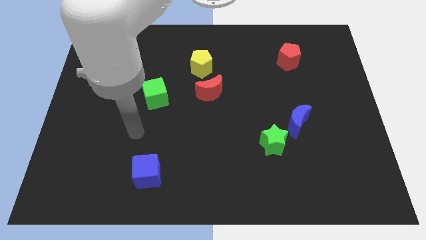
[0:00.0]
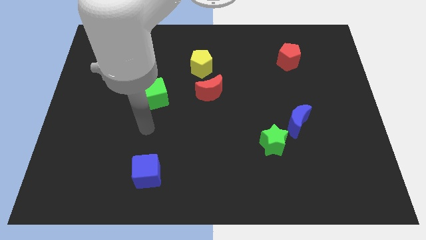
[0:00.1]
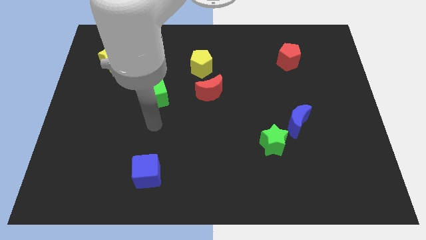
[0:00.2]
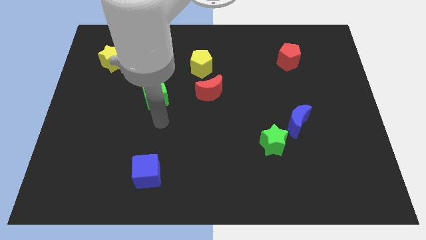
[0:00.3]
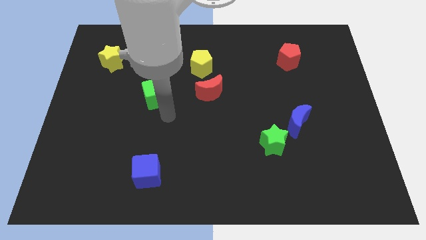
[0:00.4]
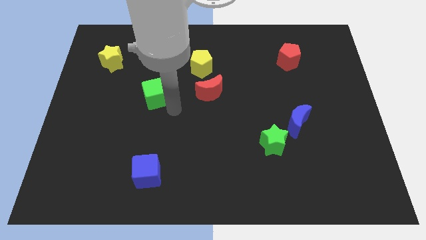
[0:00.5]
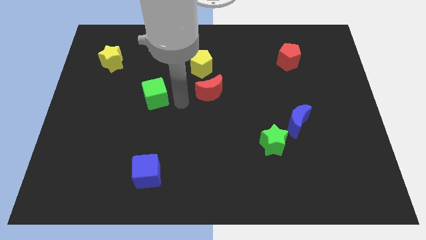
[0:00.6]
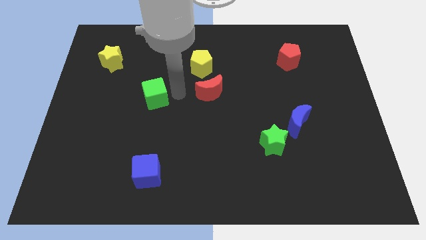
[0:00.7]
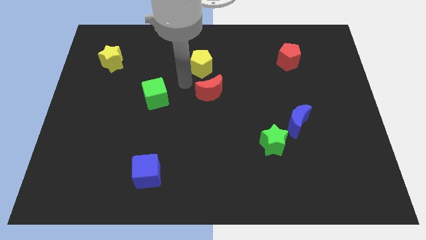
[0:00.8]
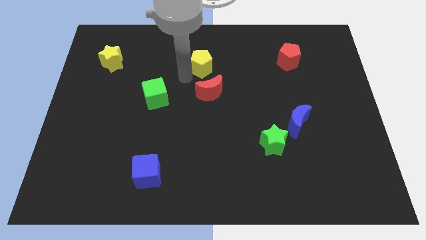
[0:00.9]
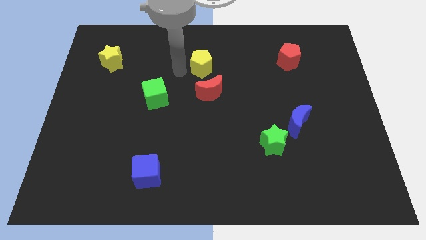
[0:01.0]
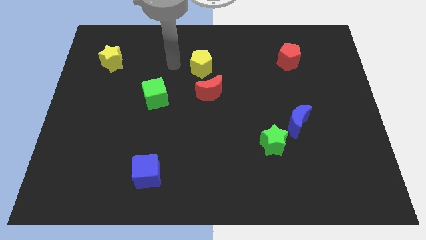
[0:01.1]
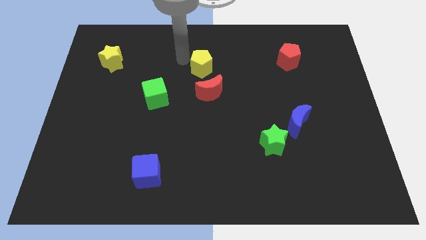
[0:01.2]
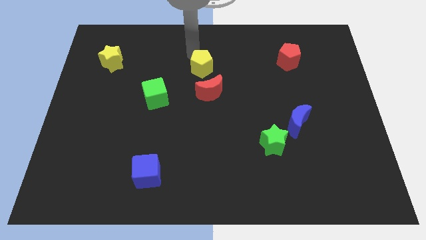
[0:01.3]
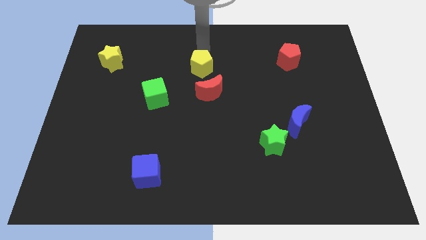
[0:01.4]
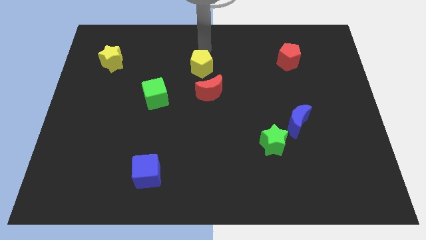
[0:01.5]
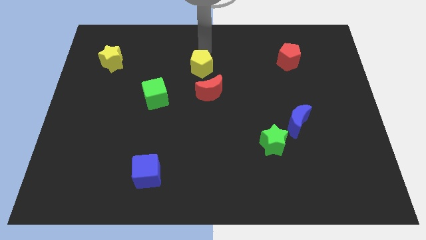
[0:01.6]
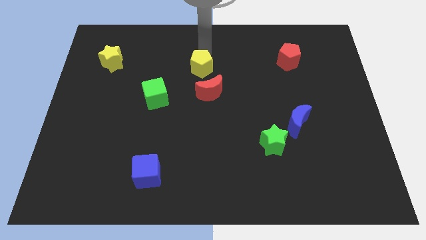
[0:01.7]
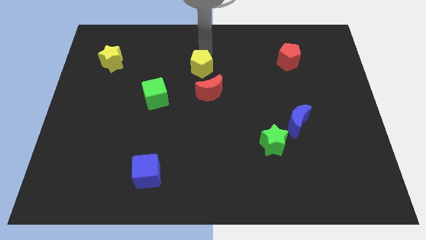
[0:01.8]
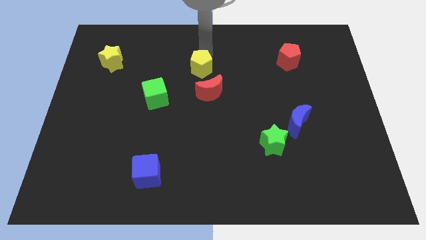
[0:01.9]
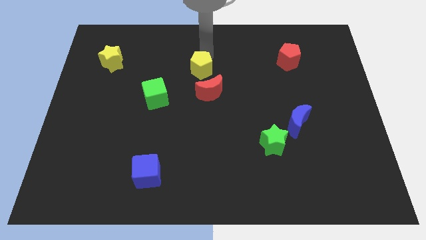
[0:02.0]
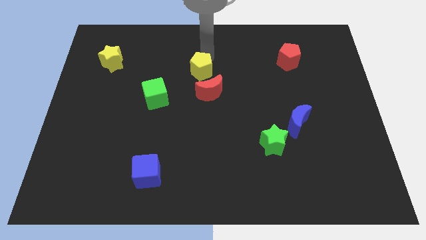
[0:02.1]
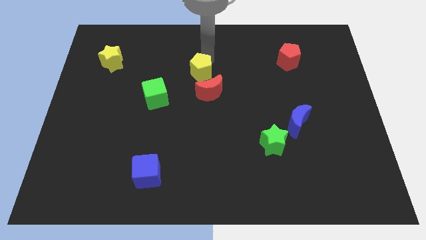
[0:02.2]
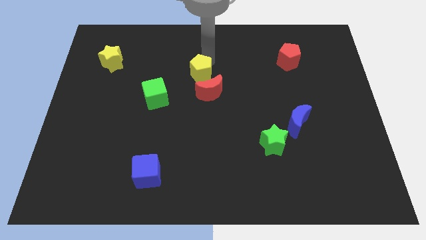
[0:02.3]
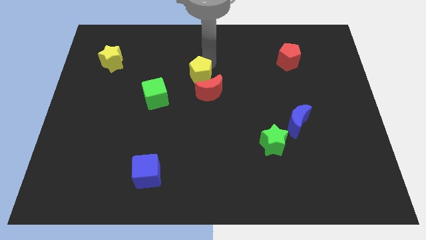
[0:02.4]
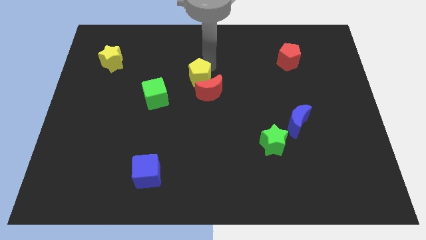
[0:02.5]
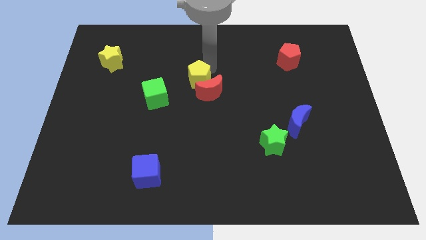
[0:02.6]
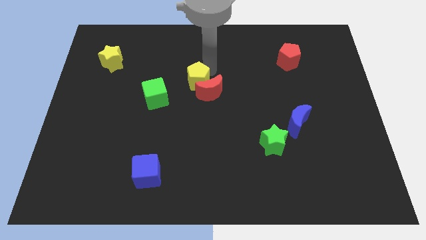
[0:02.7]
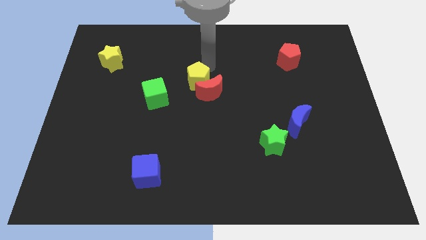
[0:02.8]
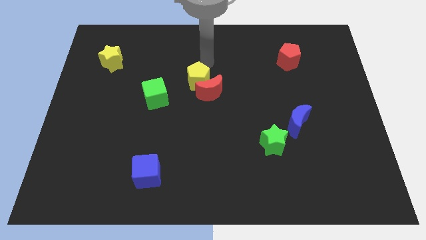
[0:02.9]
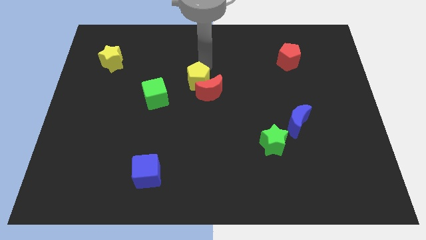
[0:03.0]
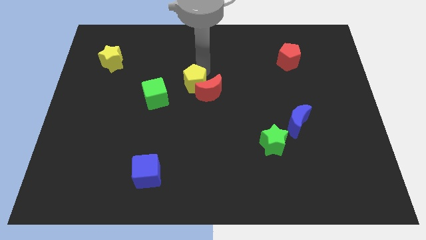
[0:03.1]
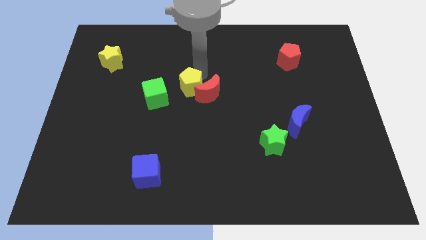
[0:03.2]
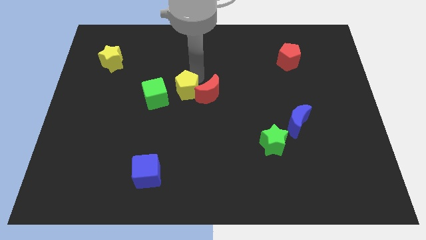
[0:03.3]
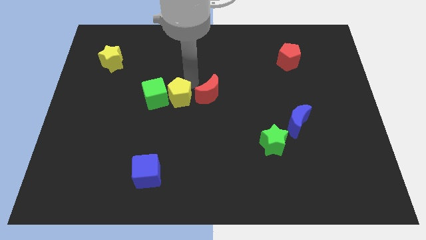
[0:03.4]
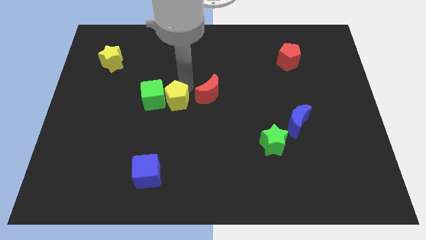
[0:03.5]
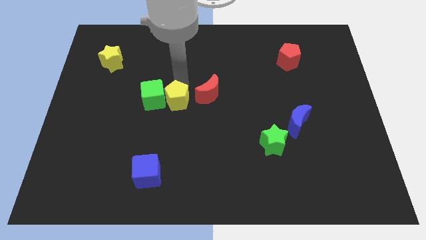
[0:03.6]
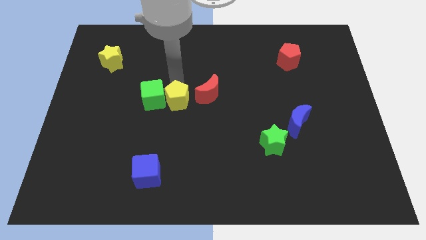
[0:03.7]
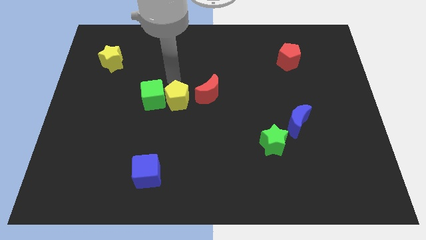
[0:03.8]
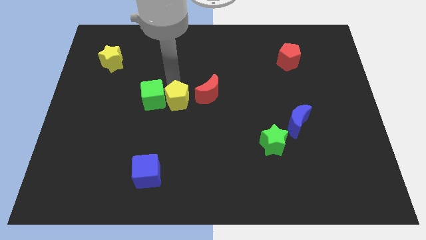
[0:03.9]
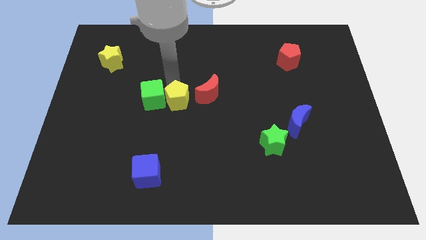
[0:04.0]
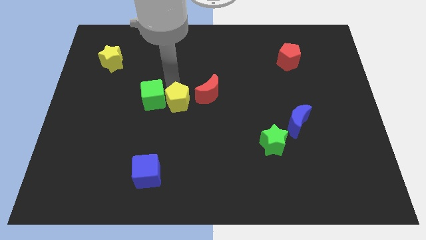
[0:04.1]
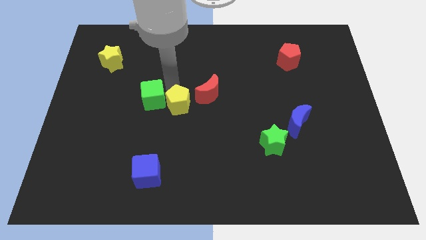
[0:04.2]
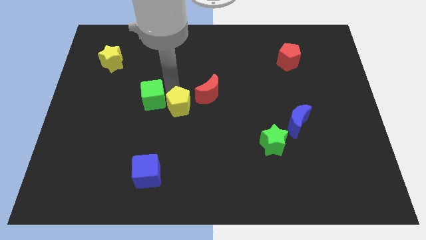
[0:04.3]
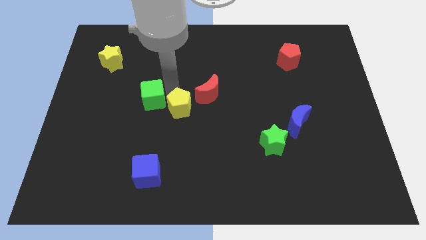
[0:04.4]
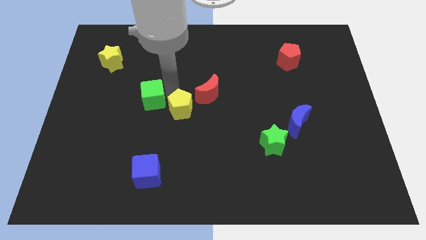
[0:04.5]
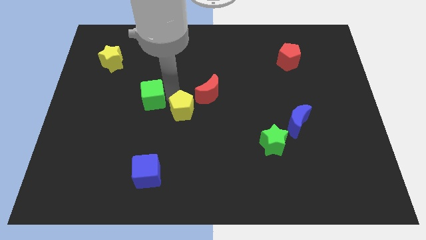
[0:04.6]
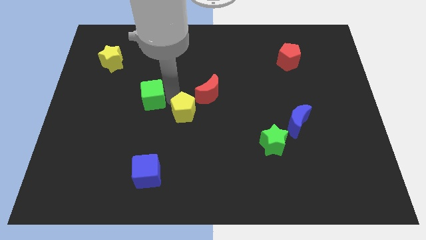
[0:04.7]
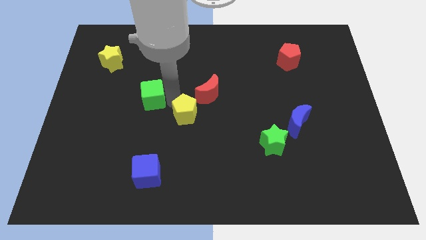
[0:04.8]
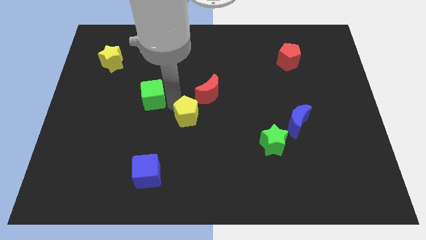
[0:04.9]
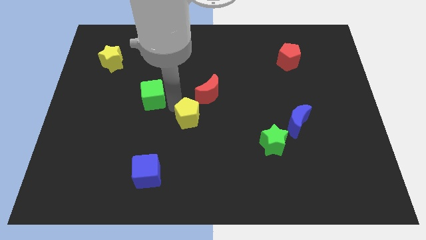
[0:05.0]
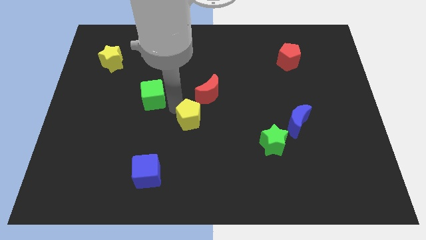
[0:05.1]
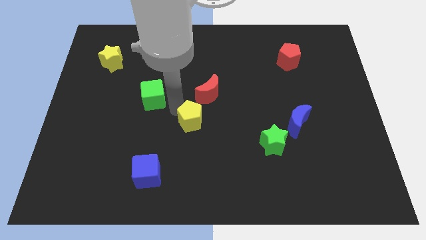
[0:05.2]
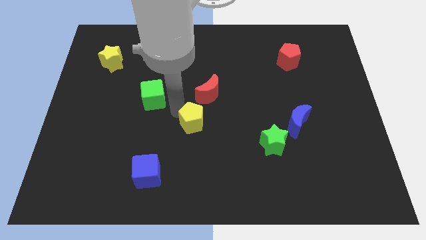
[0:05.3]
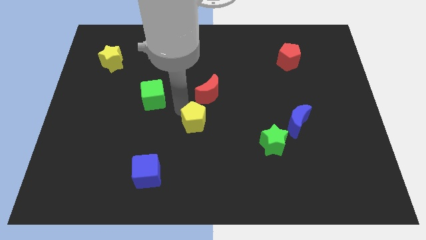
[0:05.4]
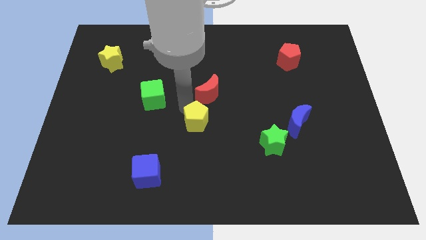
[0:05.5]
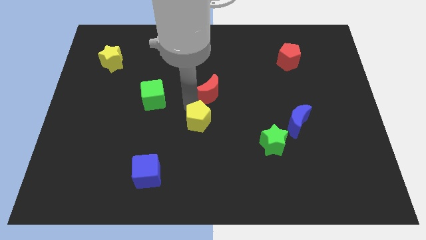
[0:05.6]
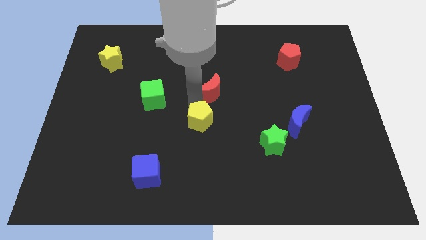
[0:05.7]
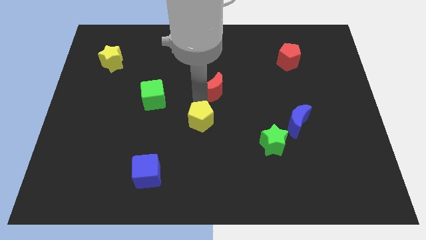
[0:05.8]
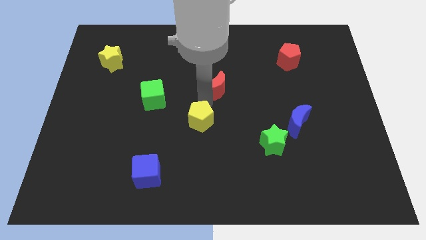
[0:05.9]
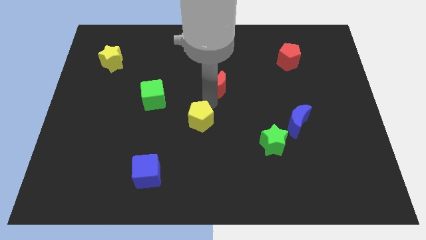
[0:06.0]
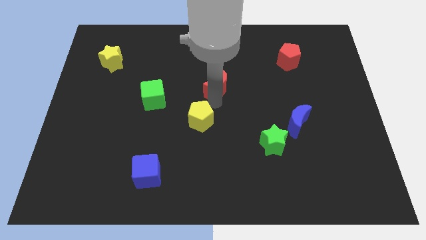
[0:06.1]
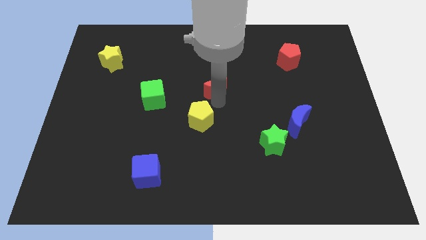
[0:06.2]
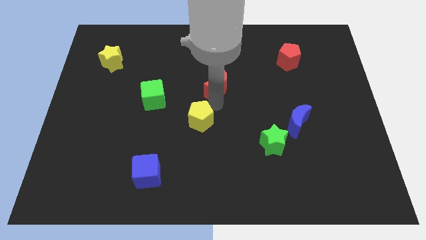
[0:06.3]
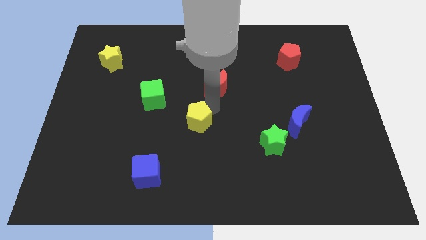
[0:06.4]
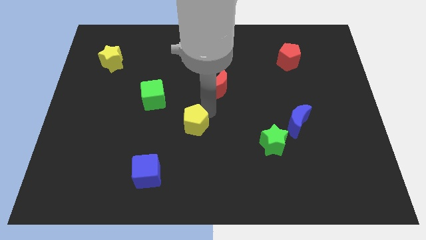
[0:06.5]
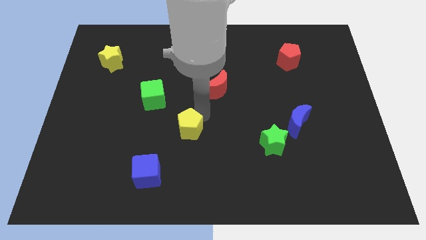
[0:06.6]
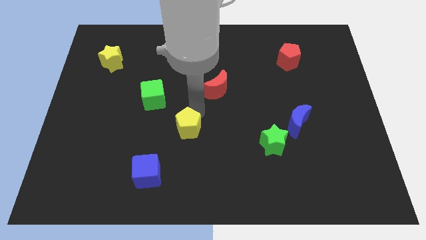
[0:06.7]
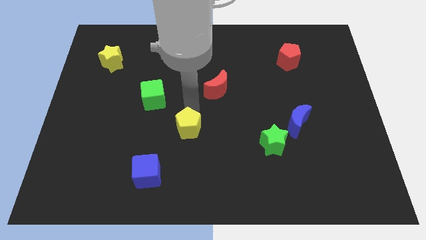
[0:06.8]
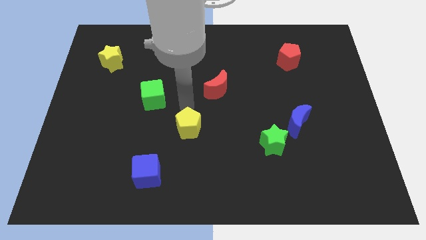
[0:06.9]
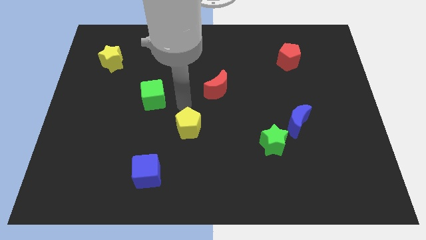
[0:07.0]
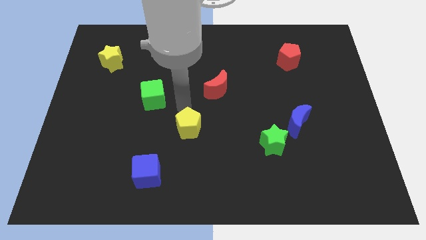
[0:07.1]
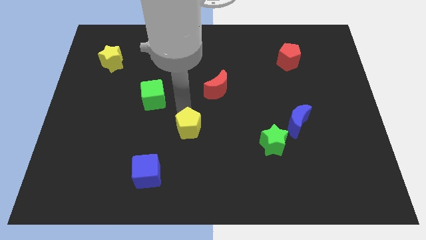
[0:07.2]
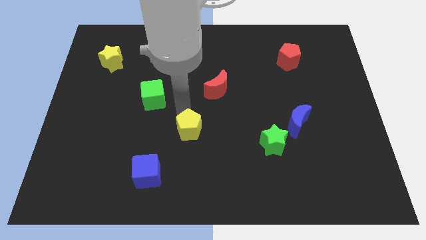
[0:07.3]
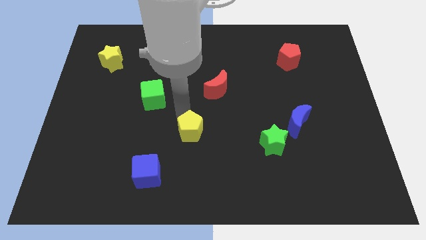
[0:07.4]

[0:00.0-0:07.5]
slide the yellow pentagon down

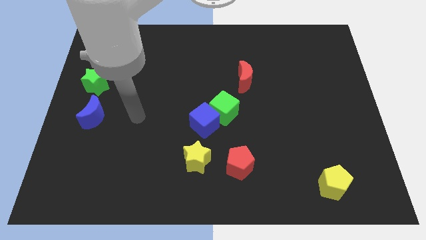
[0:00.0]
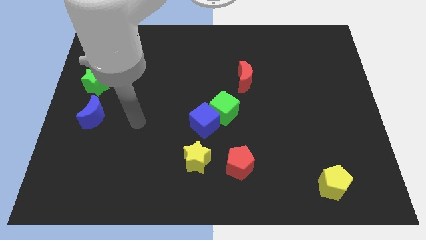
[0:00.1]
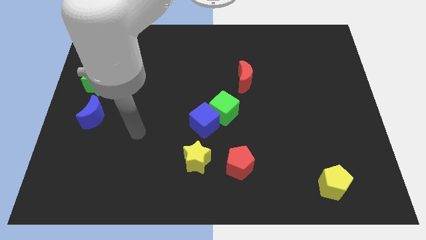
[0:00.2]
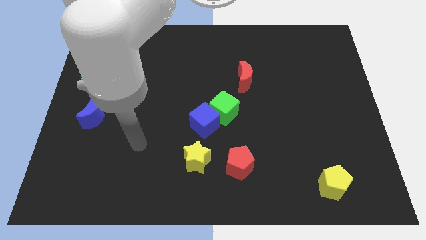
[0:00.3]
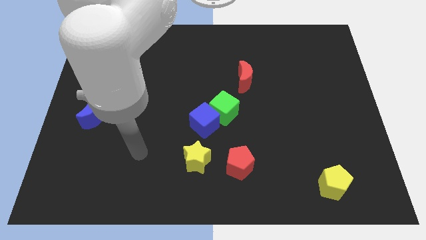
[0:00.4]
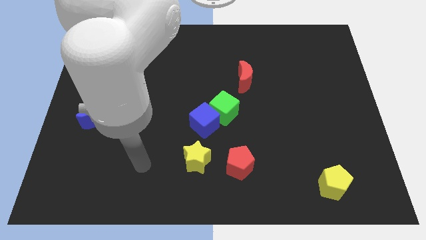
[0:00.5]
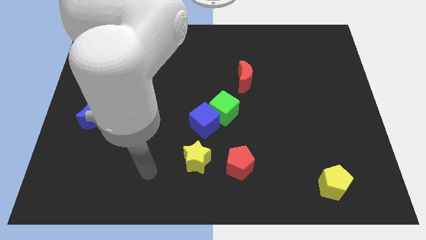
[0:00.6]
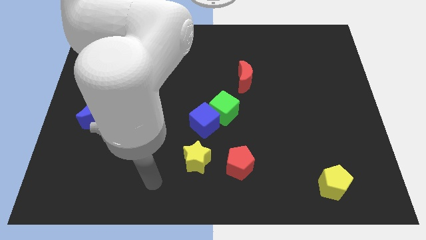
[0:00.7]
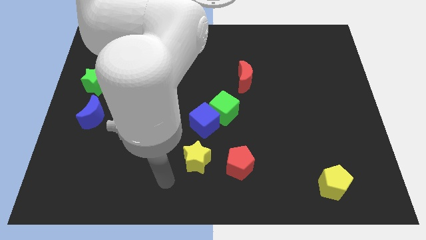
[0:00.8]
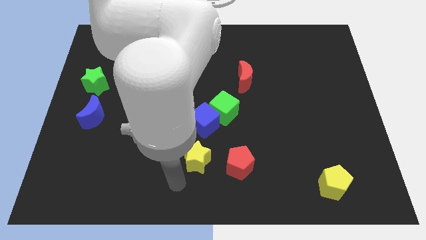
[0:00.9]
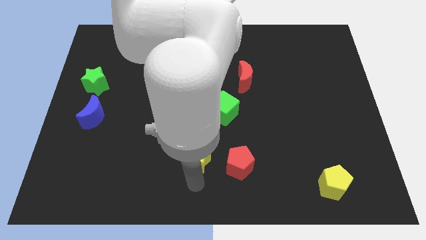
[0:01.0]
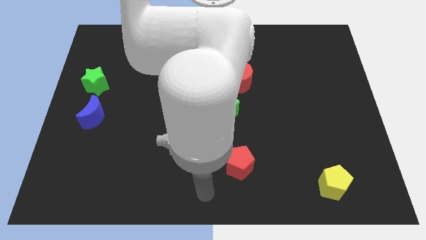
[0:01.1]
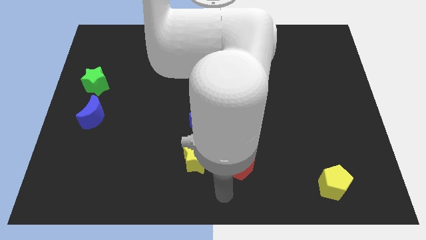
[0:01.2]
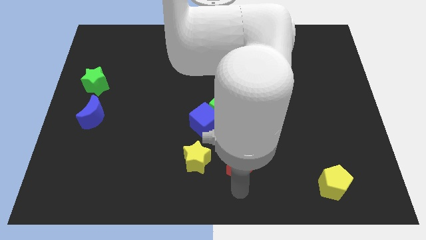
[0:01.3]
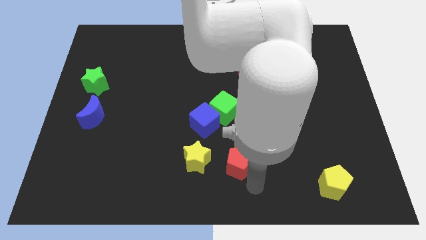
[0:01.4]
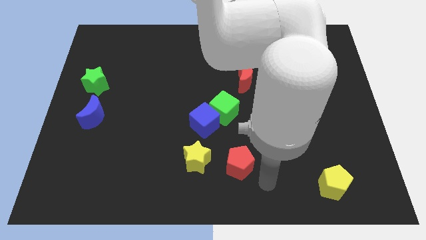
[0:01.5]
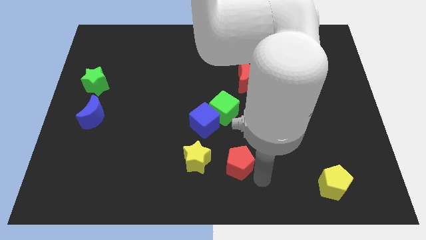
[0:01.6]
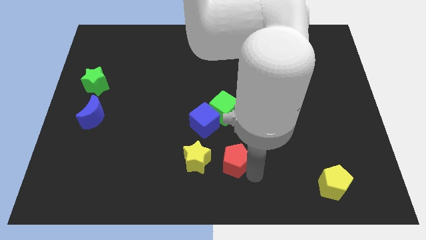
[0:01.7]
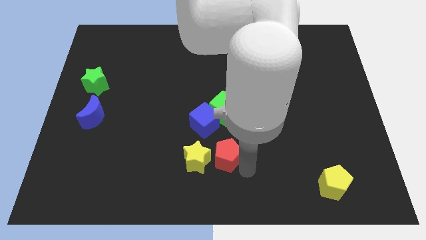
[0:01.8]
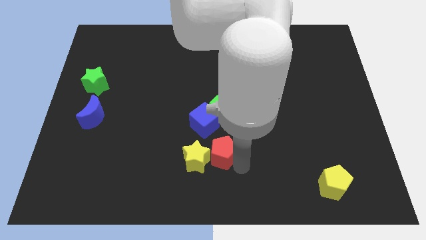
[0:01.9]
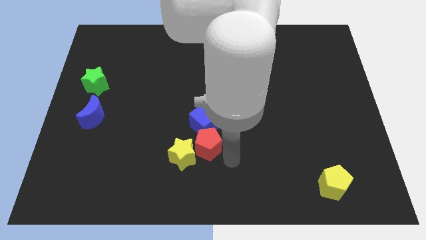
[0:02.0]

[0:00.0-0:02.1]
push the red pentagon up and then to the left a little bit
